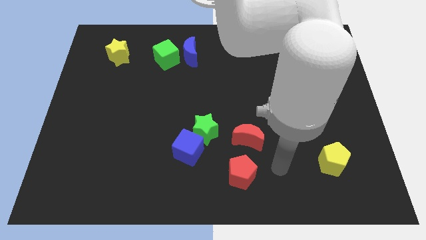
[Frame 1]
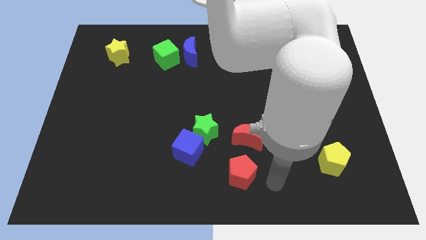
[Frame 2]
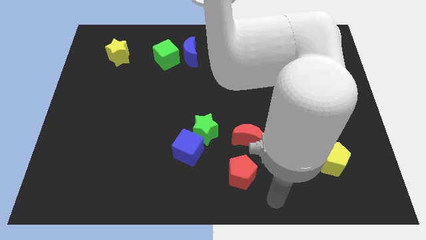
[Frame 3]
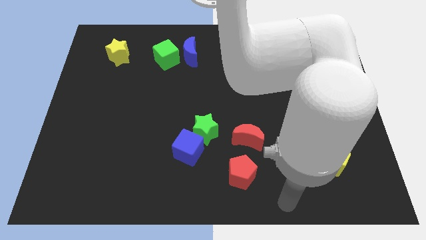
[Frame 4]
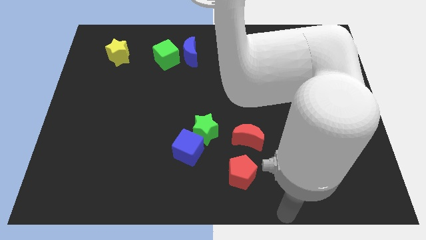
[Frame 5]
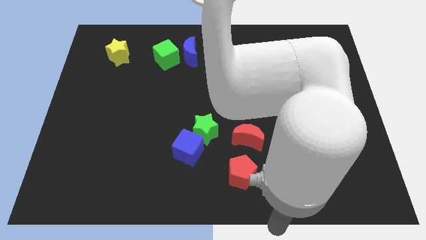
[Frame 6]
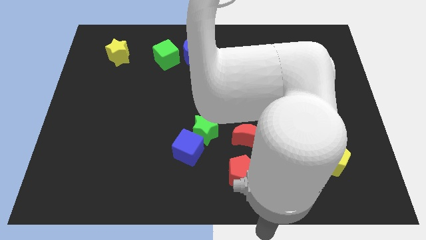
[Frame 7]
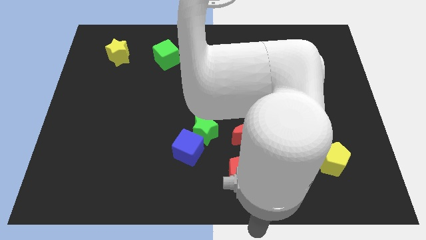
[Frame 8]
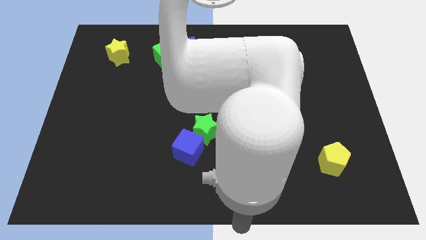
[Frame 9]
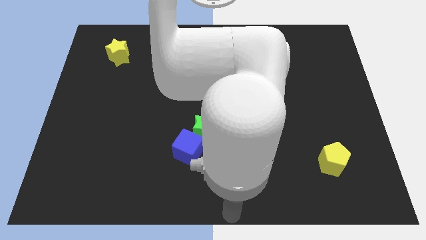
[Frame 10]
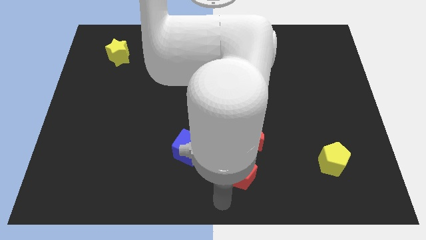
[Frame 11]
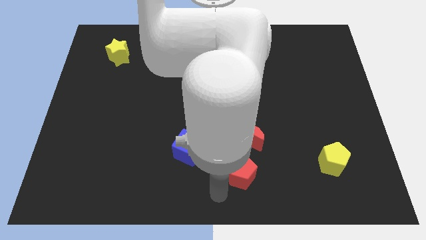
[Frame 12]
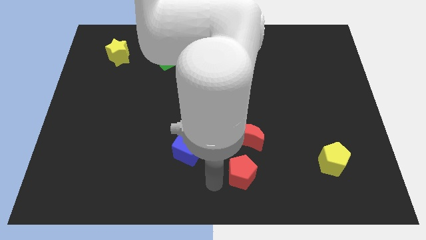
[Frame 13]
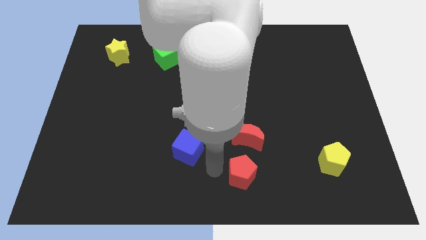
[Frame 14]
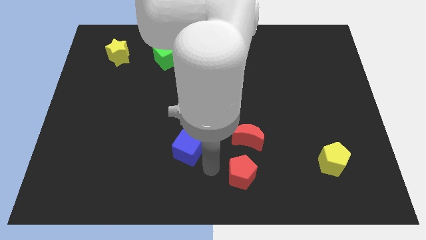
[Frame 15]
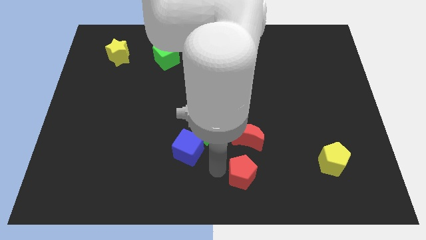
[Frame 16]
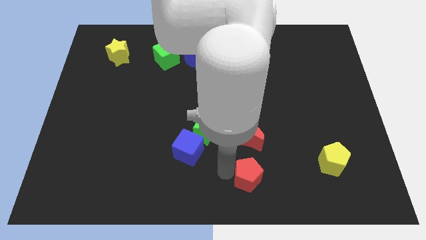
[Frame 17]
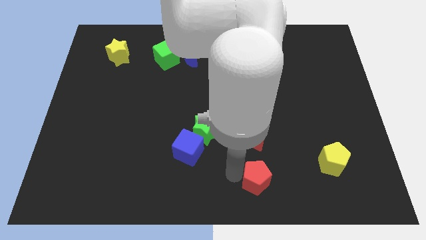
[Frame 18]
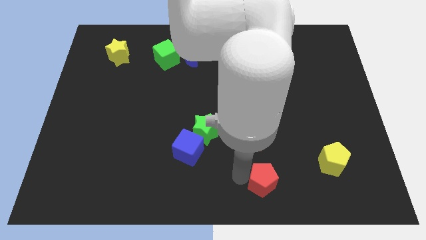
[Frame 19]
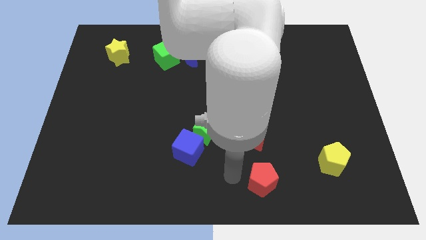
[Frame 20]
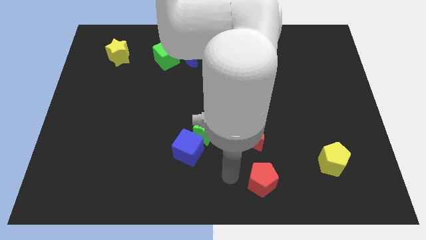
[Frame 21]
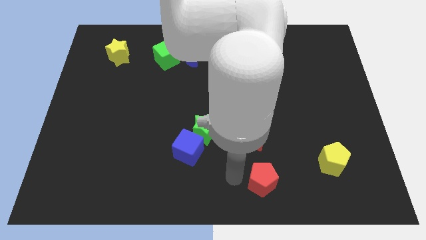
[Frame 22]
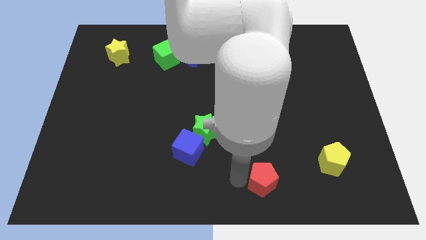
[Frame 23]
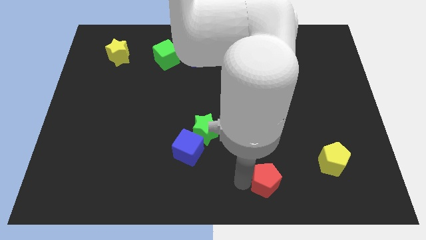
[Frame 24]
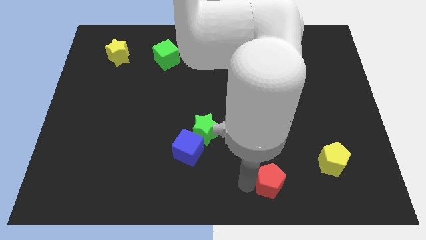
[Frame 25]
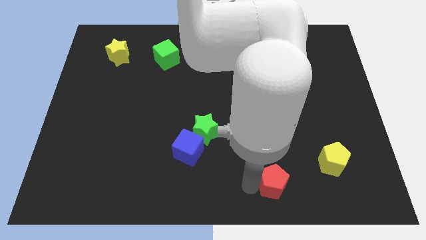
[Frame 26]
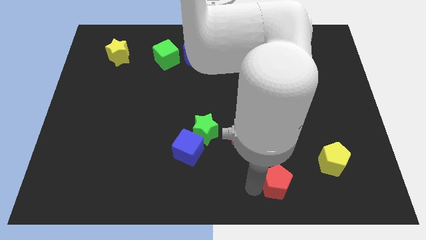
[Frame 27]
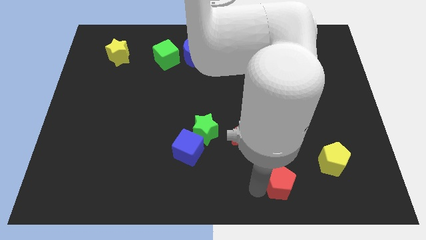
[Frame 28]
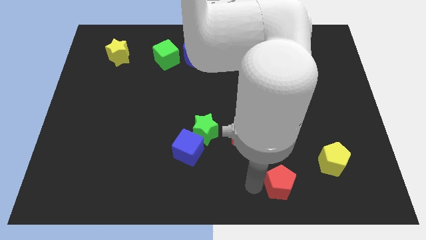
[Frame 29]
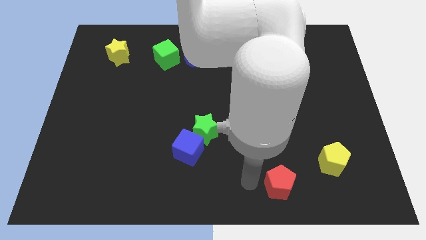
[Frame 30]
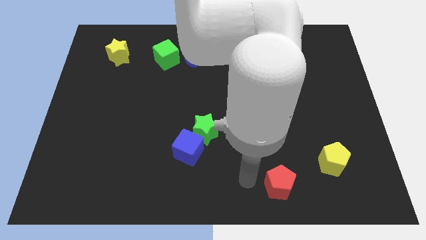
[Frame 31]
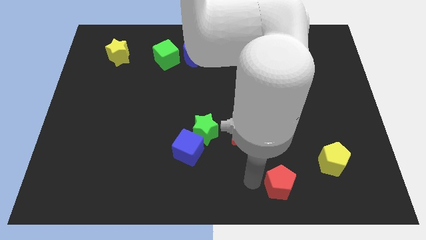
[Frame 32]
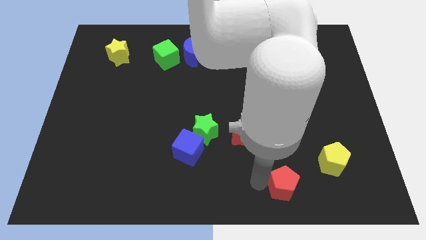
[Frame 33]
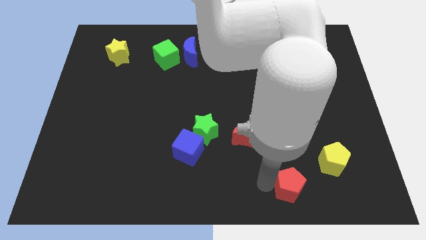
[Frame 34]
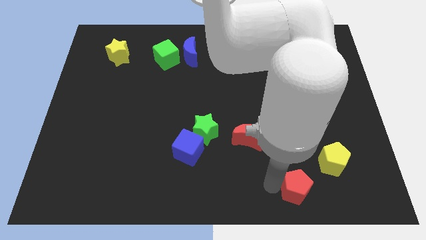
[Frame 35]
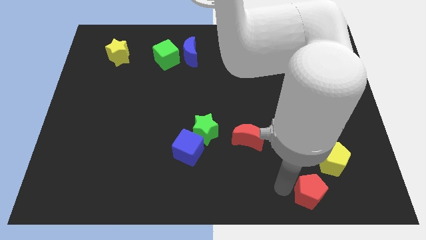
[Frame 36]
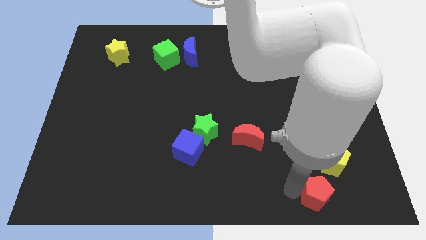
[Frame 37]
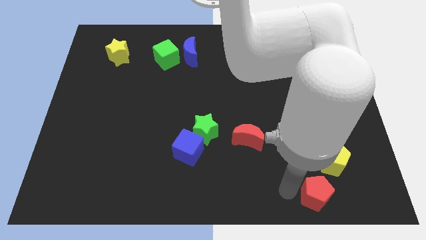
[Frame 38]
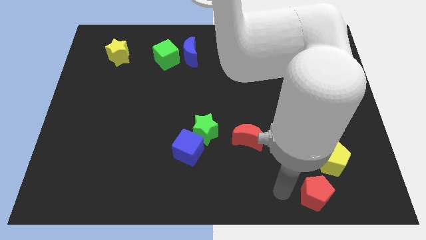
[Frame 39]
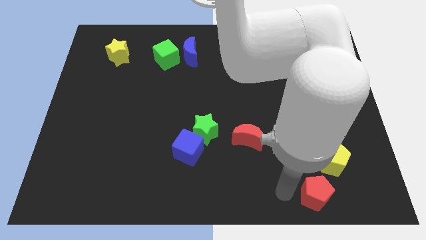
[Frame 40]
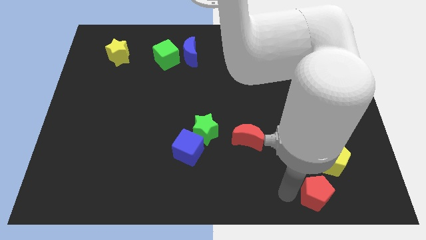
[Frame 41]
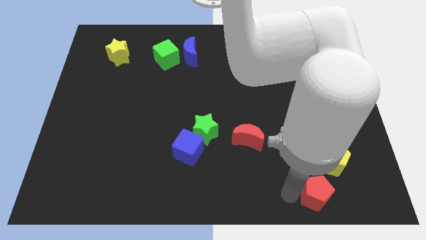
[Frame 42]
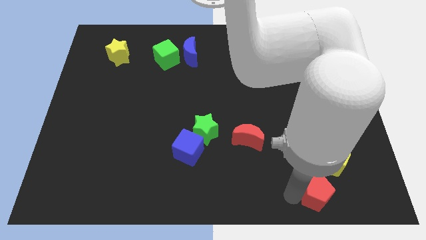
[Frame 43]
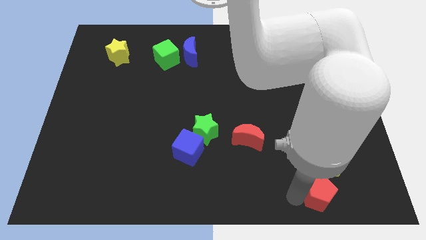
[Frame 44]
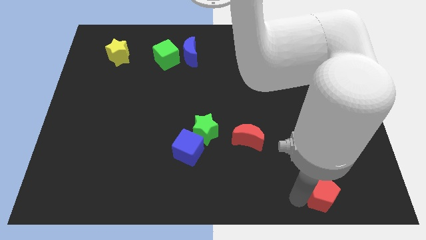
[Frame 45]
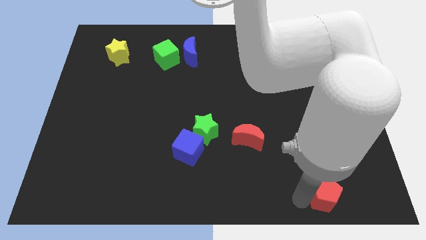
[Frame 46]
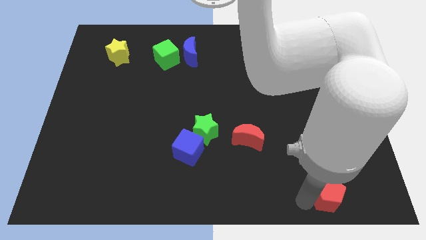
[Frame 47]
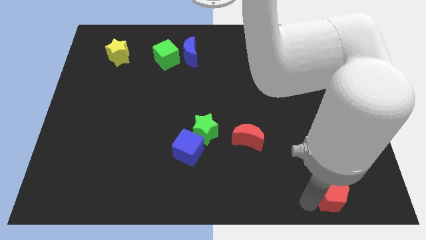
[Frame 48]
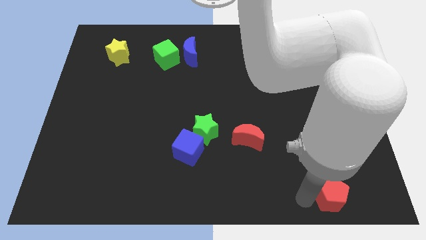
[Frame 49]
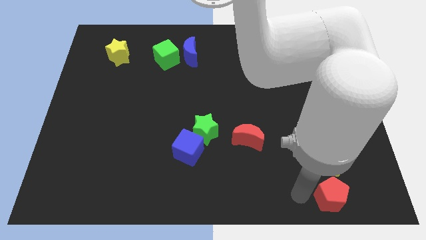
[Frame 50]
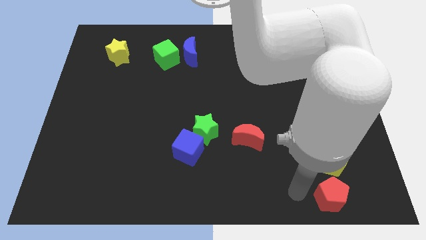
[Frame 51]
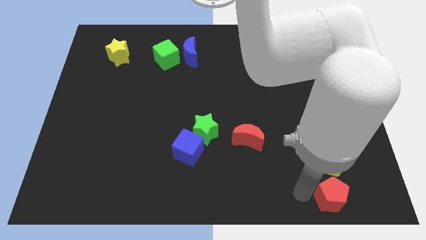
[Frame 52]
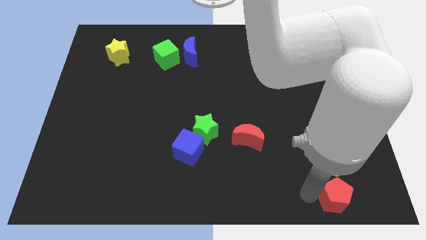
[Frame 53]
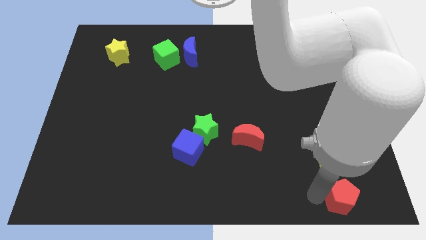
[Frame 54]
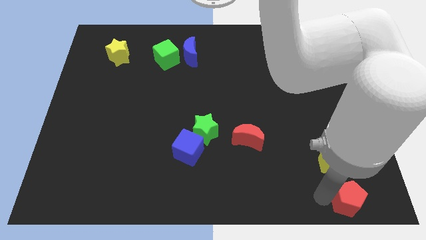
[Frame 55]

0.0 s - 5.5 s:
push the red pentagon to the bottom right corner

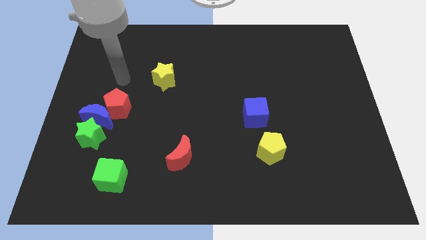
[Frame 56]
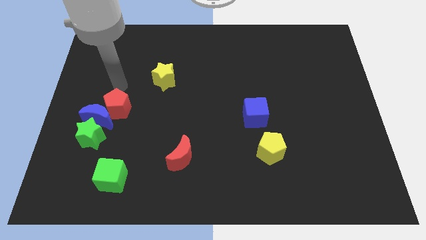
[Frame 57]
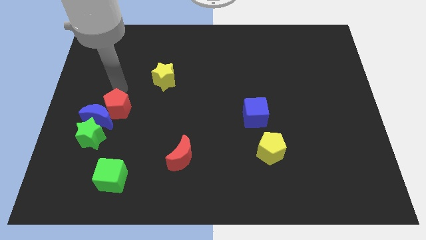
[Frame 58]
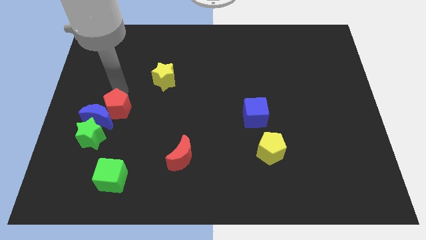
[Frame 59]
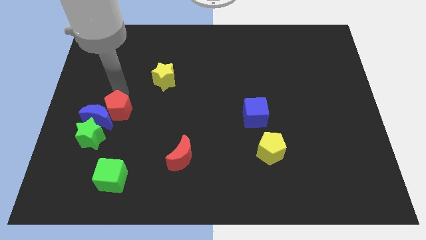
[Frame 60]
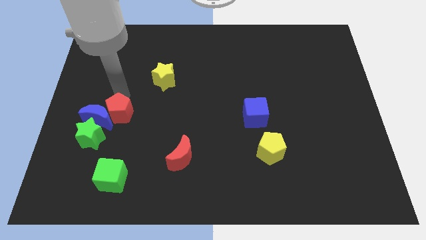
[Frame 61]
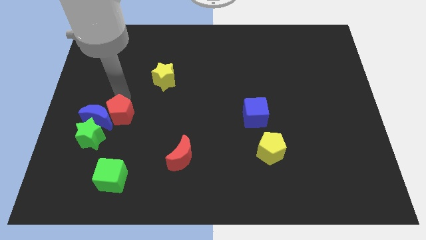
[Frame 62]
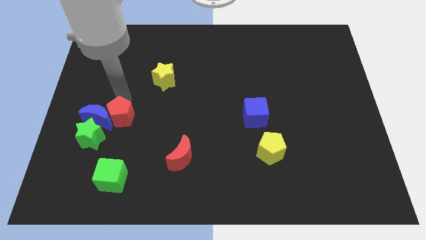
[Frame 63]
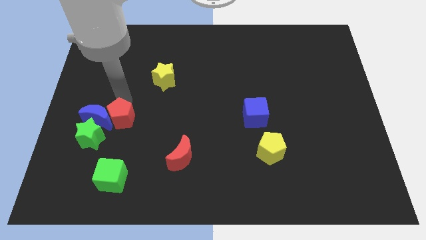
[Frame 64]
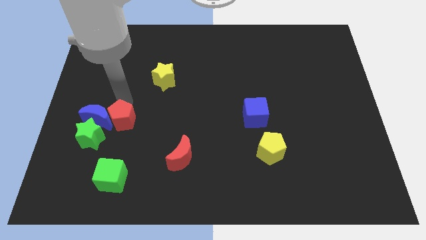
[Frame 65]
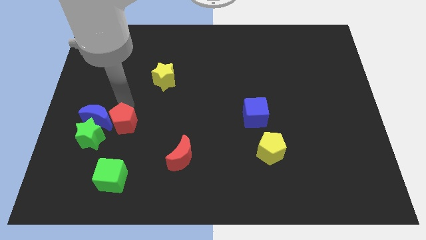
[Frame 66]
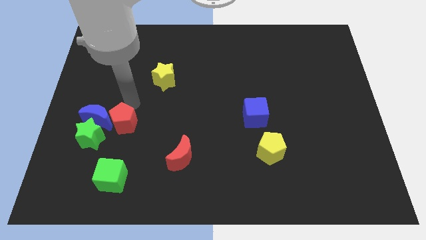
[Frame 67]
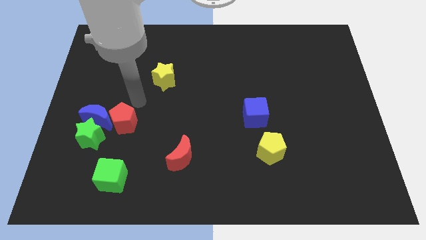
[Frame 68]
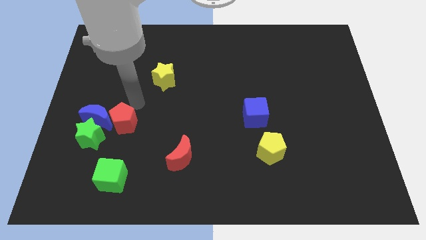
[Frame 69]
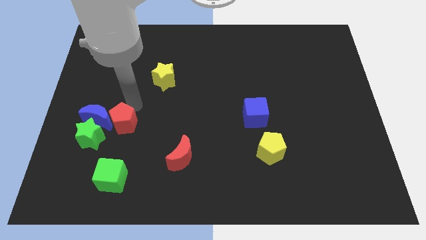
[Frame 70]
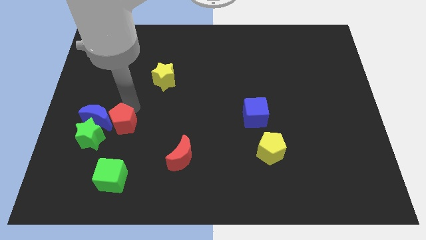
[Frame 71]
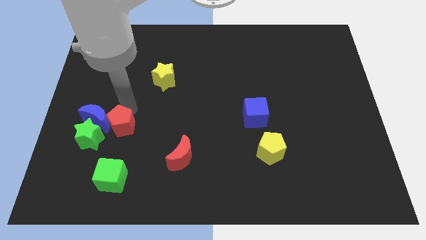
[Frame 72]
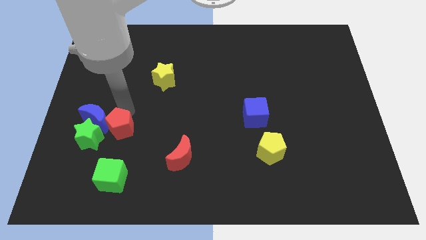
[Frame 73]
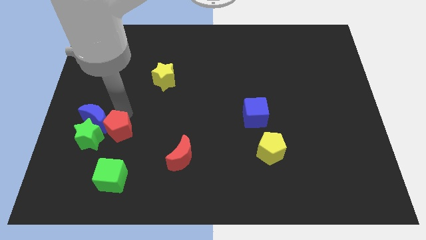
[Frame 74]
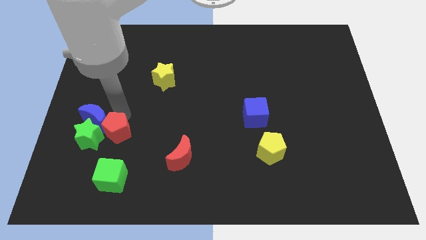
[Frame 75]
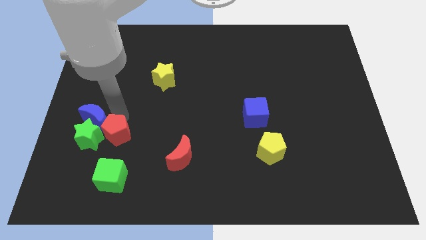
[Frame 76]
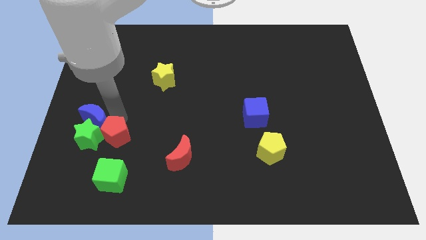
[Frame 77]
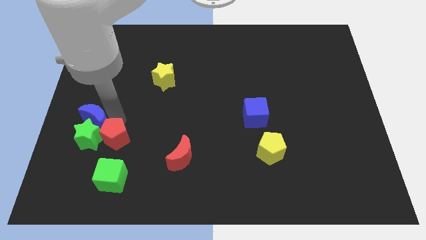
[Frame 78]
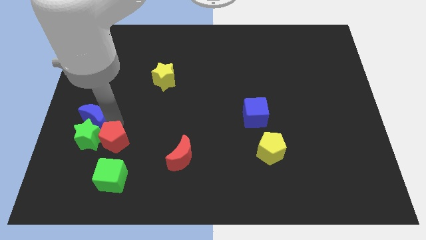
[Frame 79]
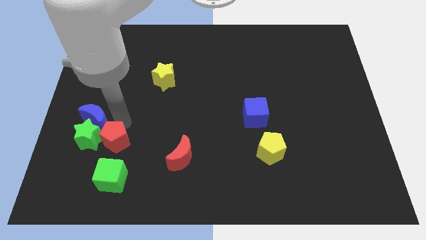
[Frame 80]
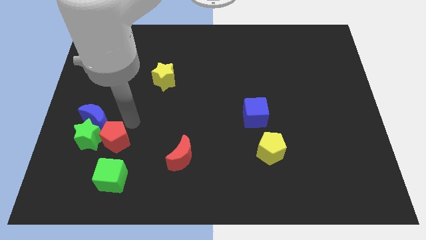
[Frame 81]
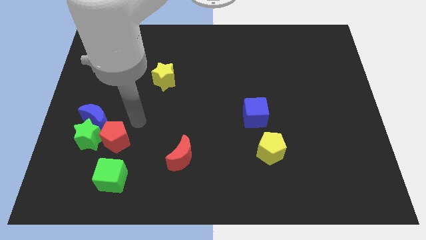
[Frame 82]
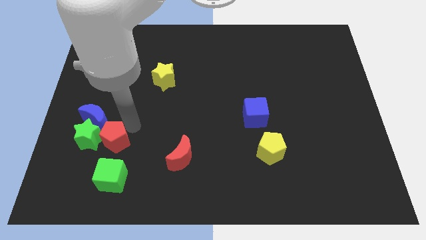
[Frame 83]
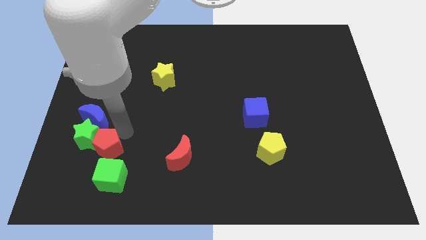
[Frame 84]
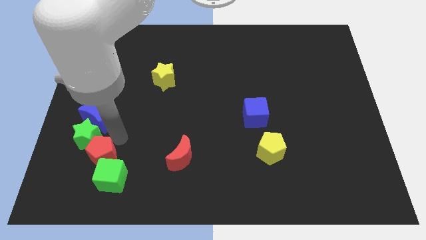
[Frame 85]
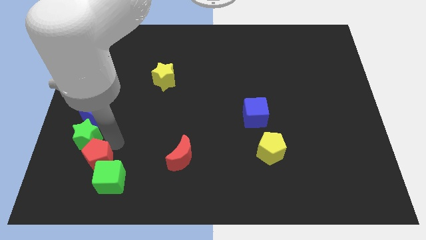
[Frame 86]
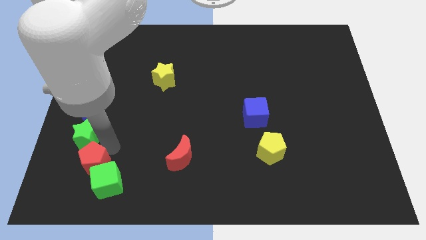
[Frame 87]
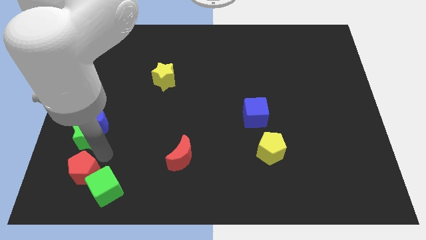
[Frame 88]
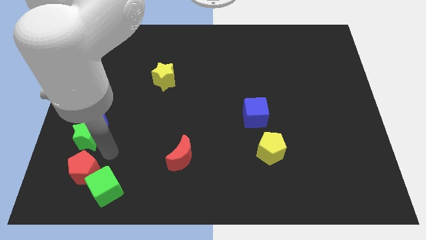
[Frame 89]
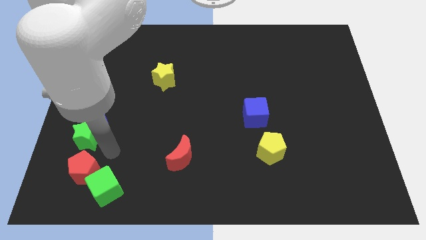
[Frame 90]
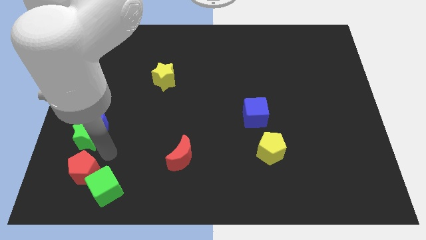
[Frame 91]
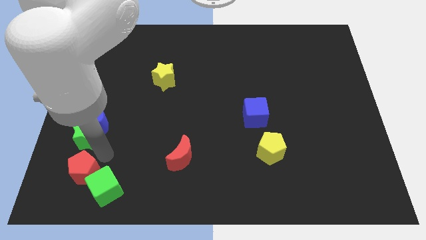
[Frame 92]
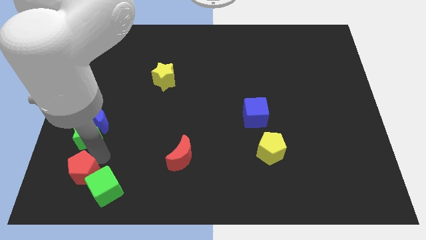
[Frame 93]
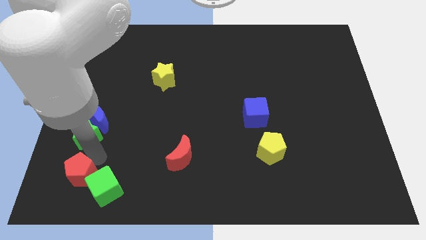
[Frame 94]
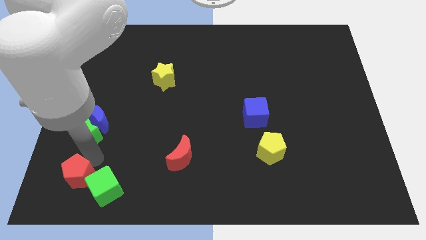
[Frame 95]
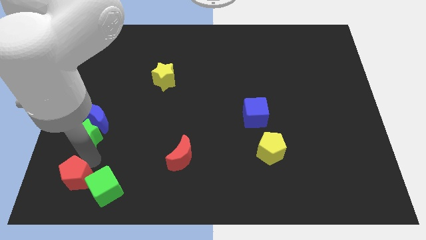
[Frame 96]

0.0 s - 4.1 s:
push the red pentagon to the lower left corner
